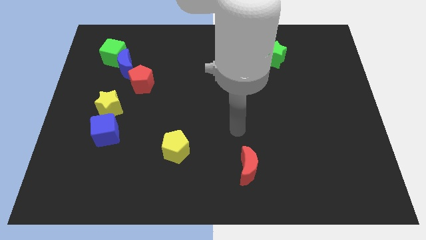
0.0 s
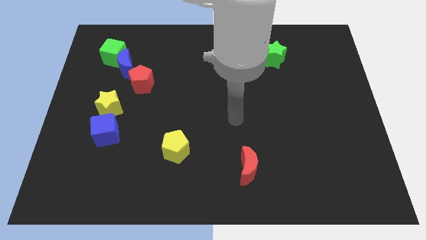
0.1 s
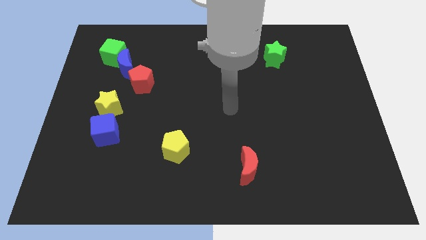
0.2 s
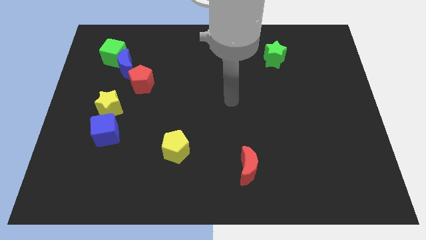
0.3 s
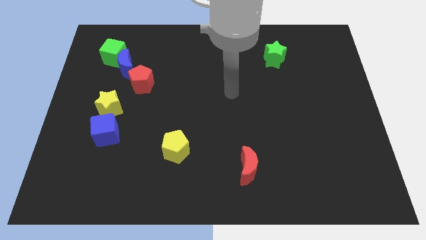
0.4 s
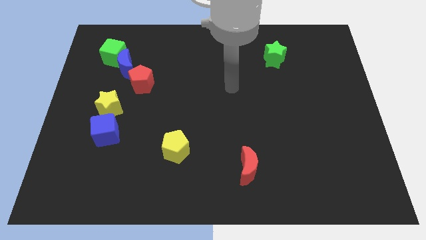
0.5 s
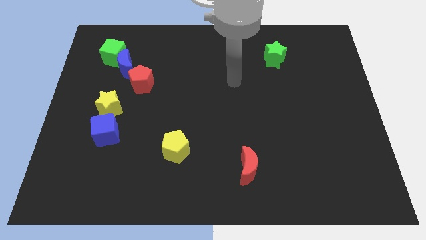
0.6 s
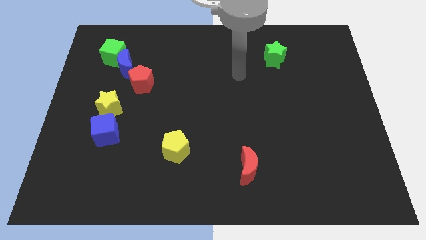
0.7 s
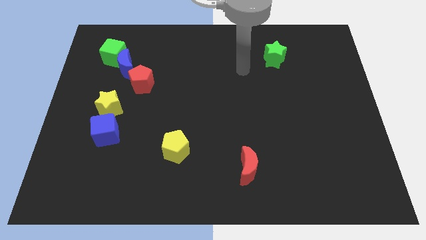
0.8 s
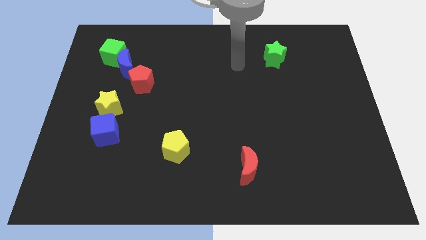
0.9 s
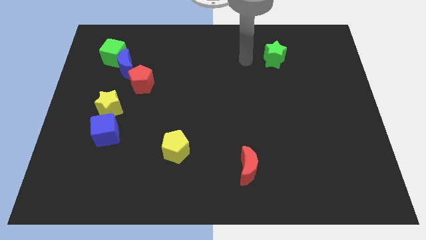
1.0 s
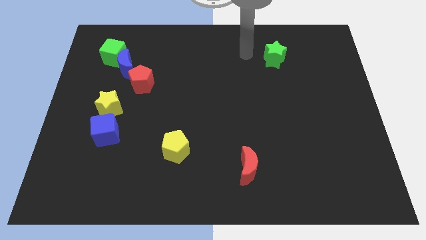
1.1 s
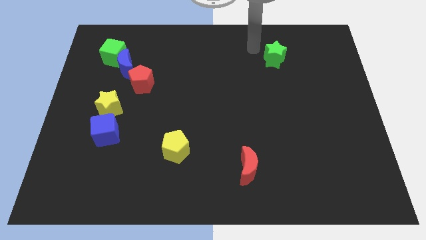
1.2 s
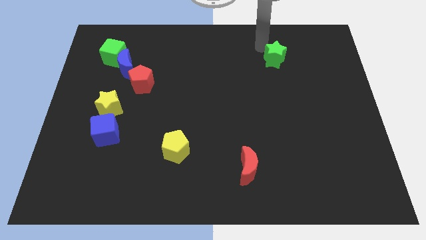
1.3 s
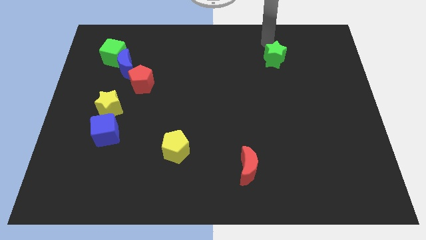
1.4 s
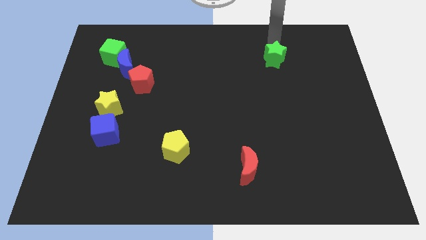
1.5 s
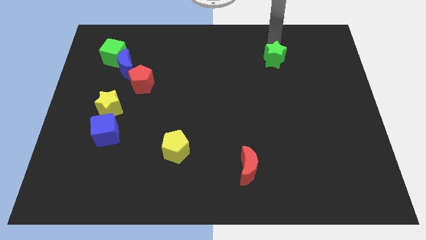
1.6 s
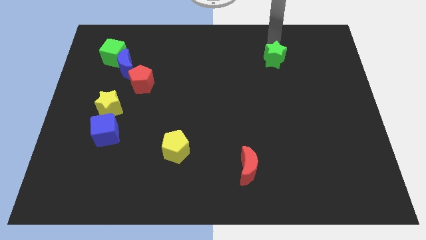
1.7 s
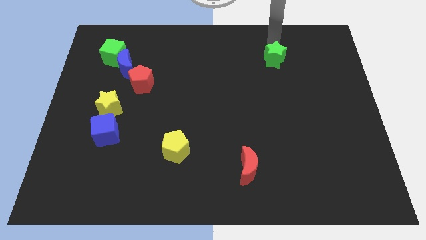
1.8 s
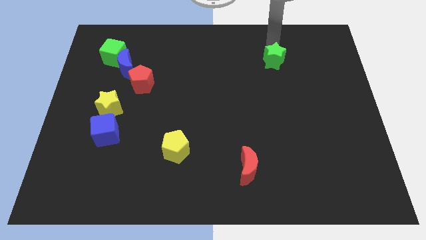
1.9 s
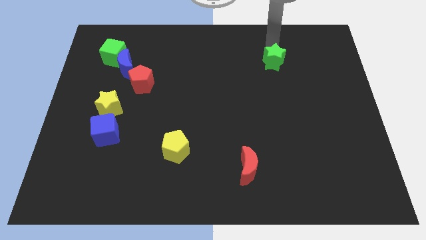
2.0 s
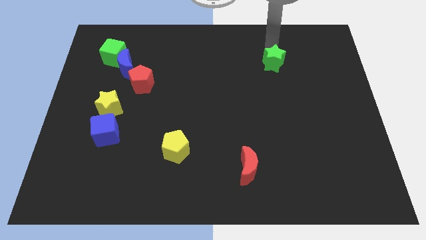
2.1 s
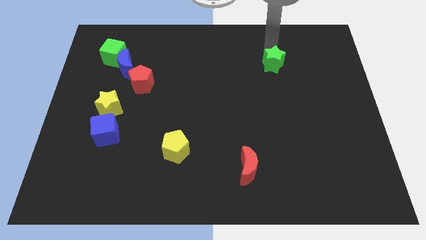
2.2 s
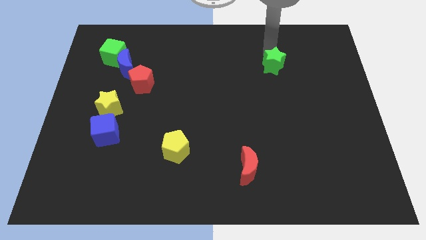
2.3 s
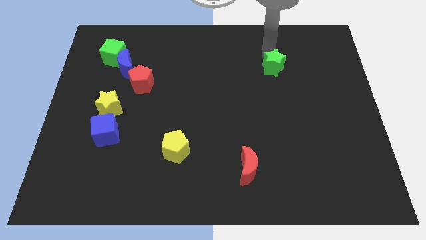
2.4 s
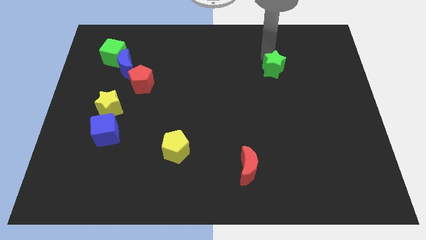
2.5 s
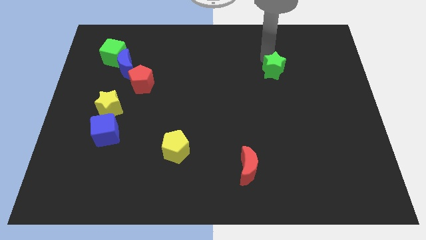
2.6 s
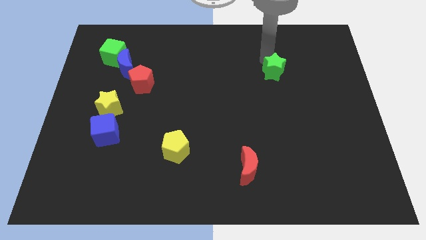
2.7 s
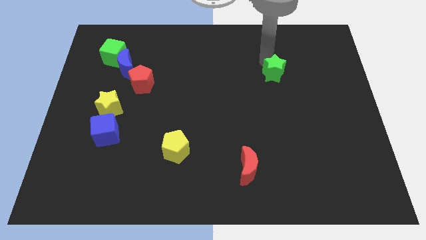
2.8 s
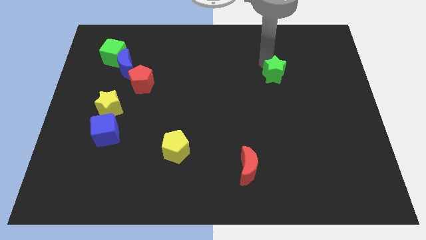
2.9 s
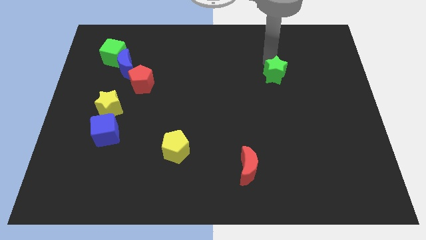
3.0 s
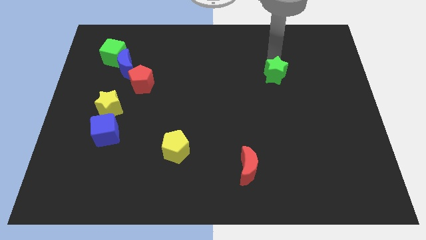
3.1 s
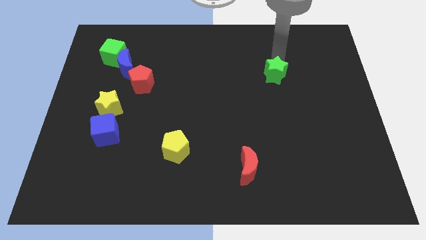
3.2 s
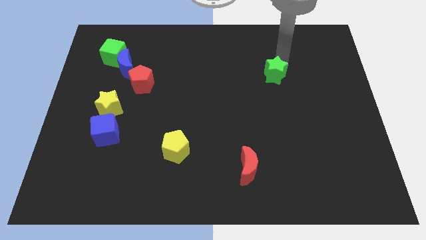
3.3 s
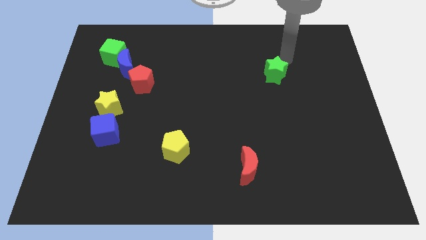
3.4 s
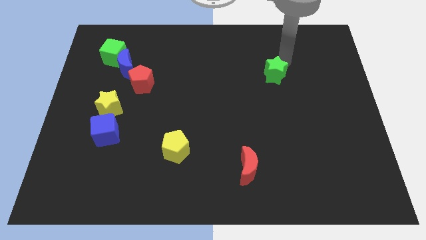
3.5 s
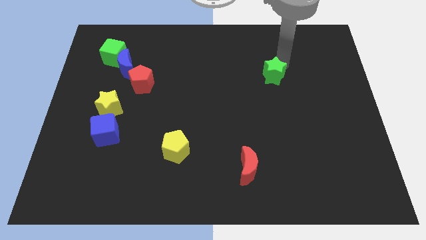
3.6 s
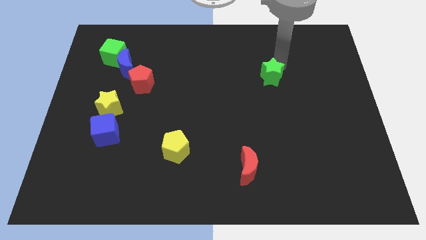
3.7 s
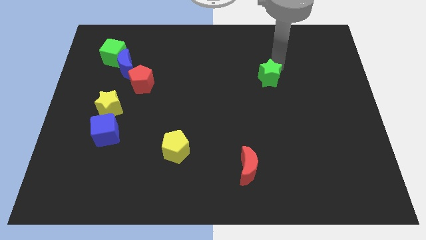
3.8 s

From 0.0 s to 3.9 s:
push the green star a little down

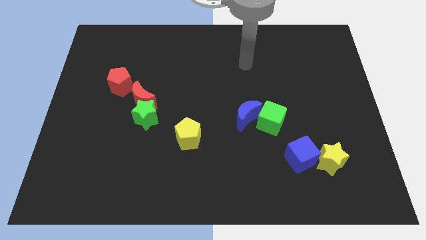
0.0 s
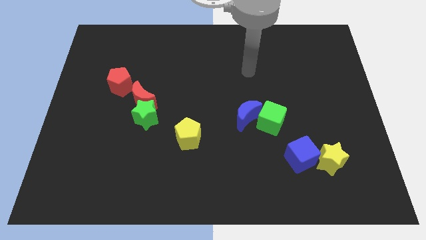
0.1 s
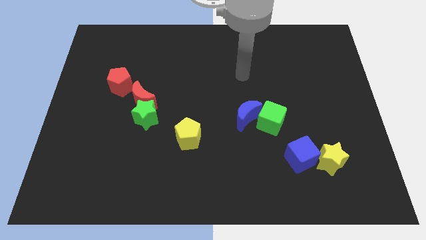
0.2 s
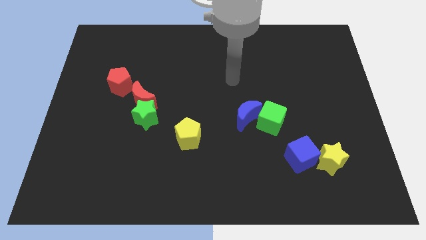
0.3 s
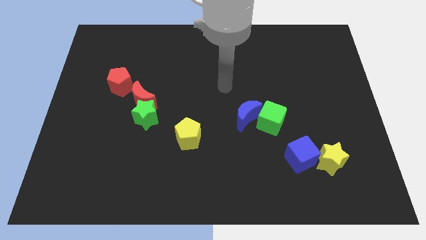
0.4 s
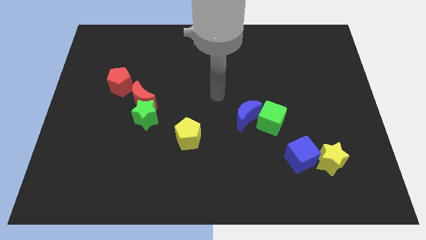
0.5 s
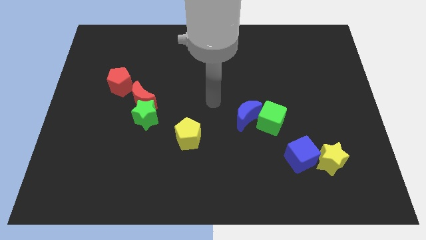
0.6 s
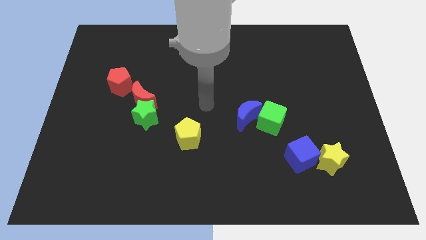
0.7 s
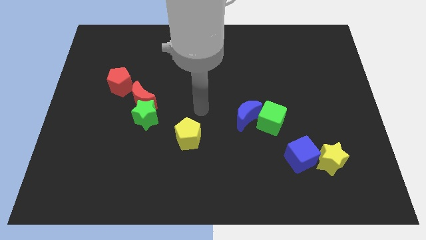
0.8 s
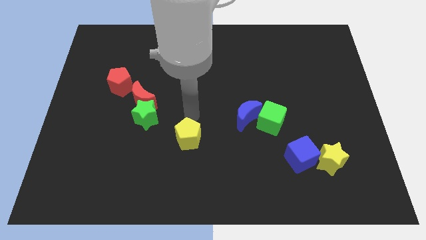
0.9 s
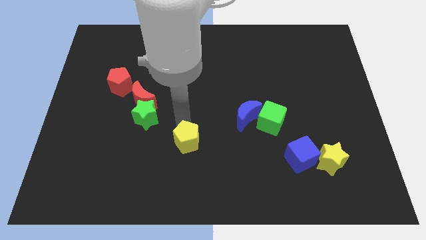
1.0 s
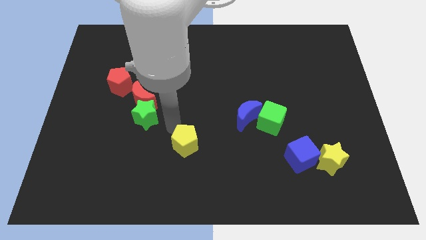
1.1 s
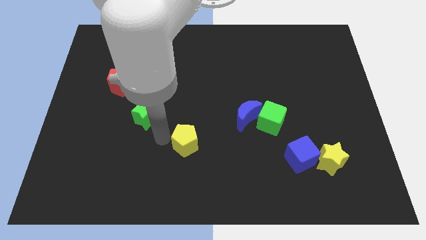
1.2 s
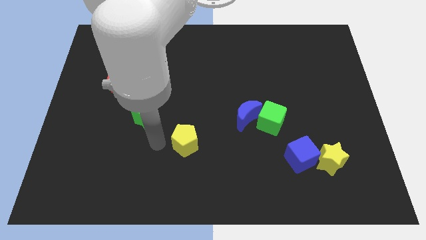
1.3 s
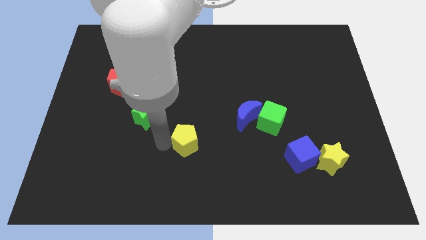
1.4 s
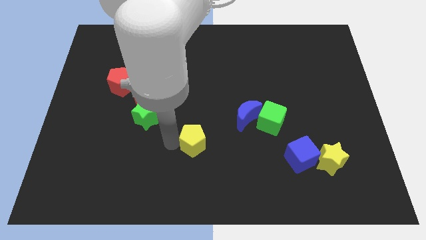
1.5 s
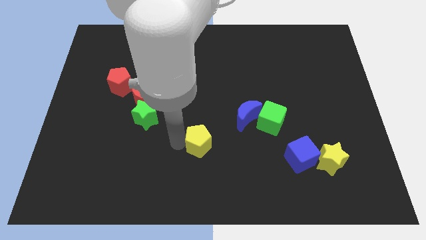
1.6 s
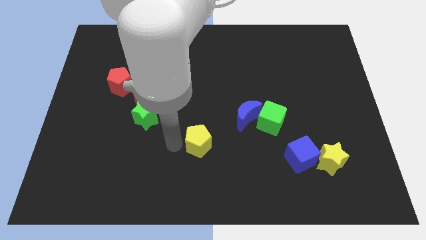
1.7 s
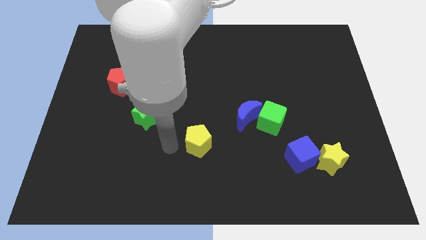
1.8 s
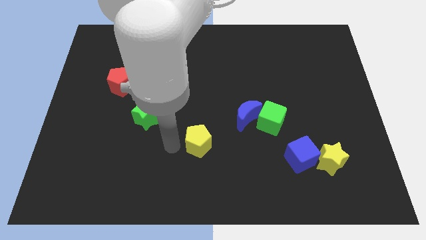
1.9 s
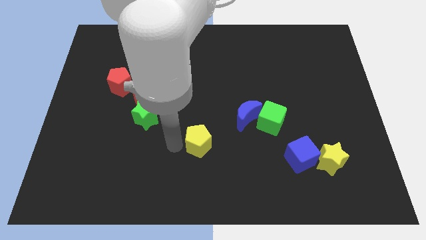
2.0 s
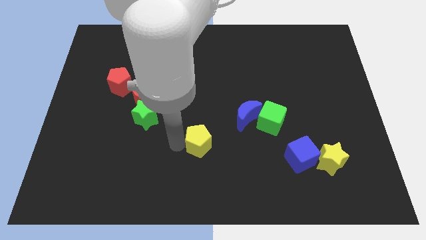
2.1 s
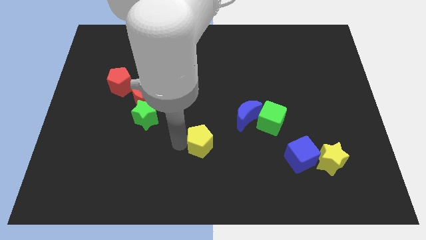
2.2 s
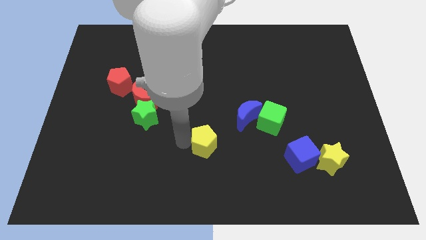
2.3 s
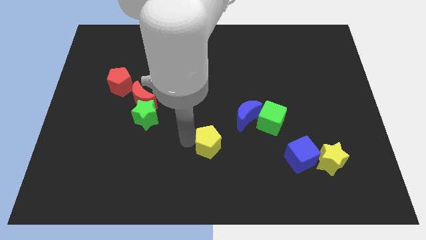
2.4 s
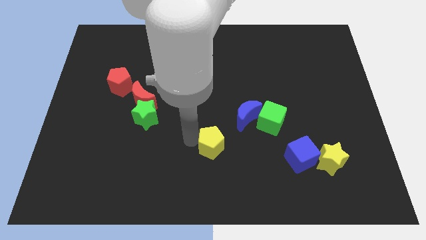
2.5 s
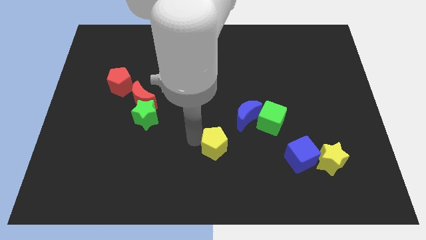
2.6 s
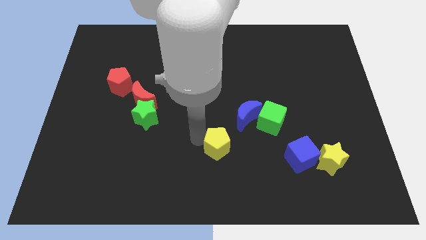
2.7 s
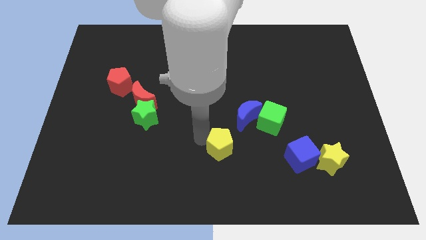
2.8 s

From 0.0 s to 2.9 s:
slide the yellow pentagon a bit right

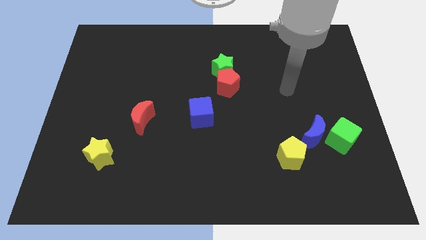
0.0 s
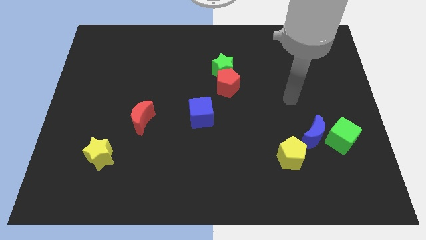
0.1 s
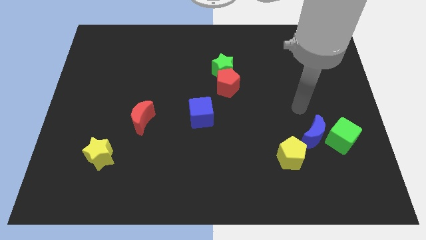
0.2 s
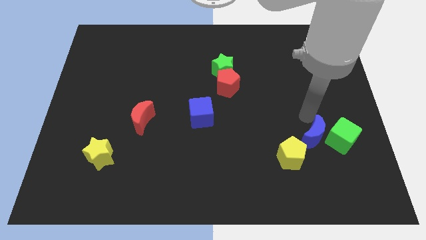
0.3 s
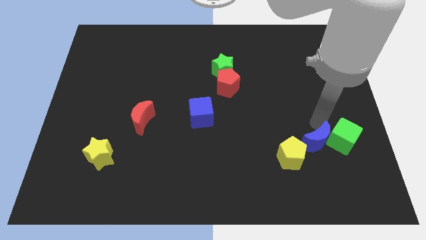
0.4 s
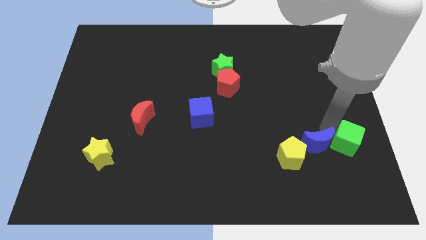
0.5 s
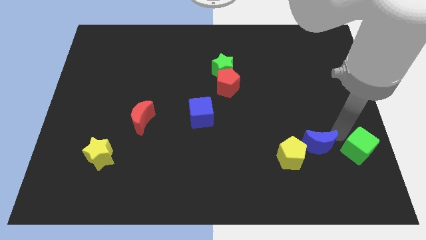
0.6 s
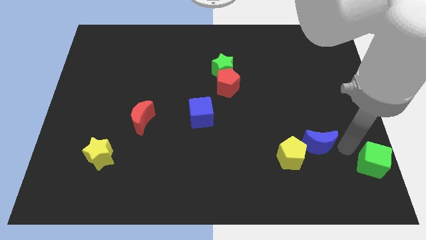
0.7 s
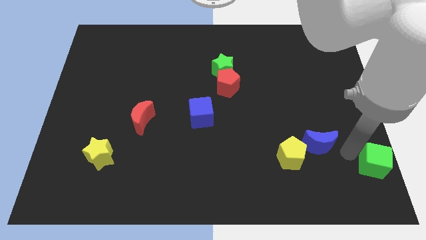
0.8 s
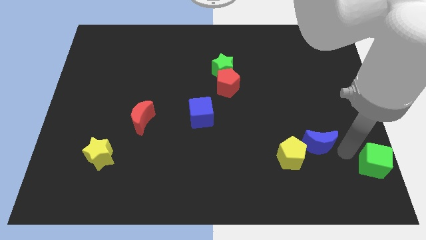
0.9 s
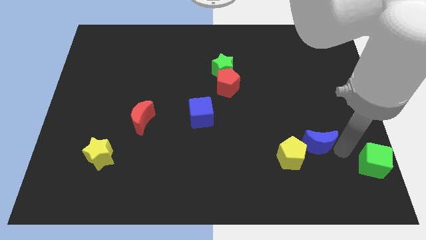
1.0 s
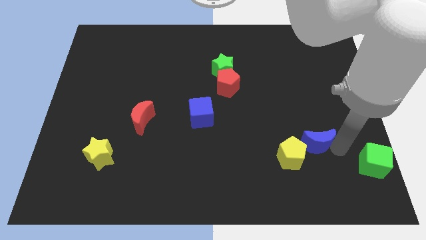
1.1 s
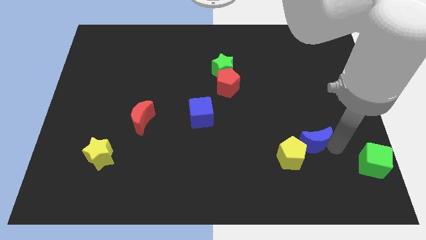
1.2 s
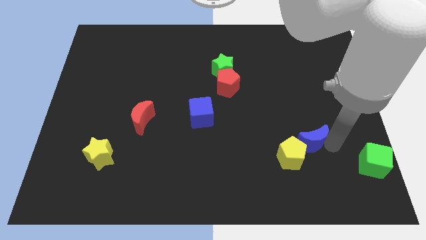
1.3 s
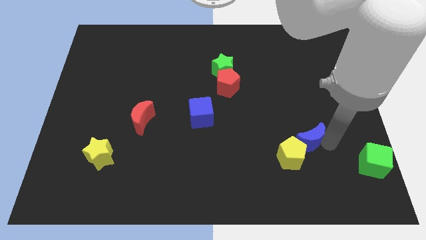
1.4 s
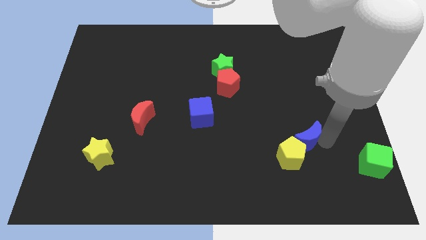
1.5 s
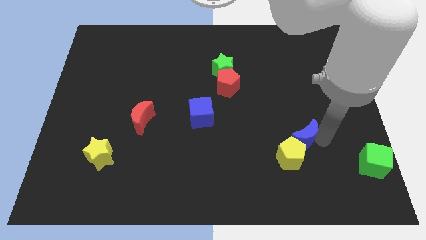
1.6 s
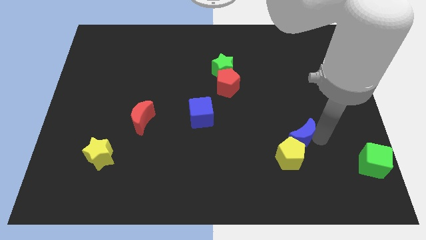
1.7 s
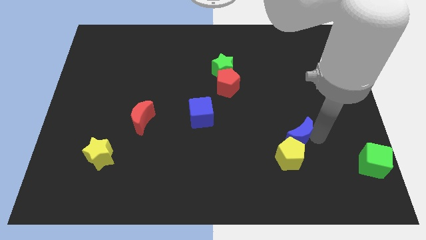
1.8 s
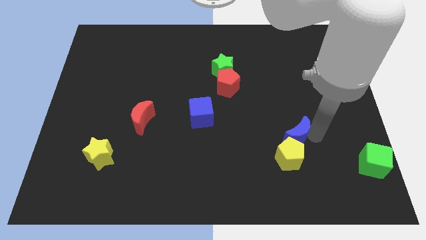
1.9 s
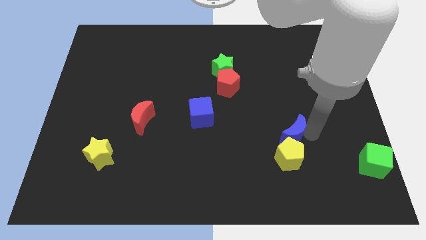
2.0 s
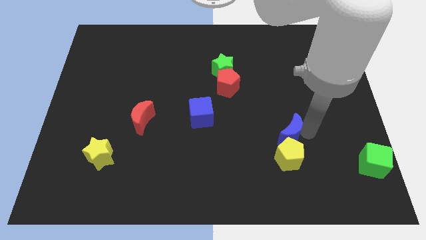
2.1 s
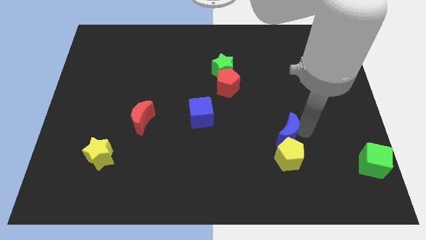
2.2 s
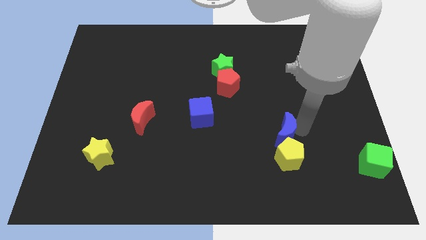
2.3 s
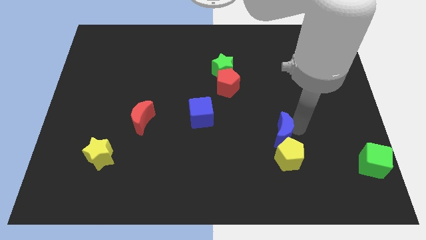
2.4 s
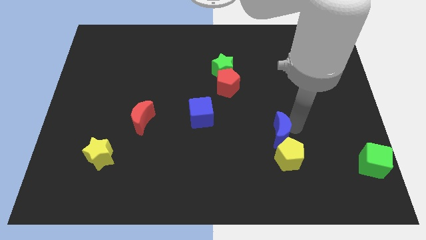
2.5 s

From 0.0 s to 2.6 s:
slide the blue moon to the left a little
